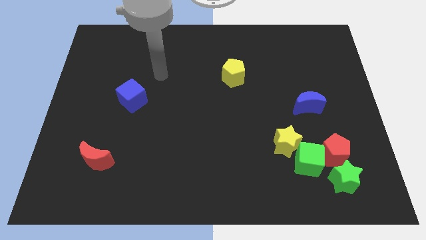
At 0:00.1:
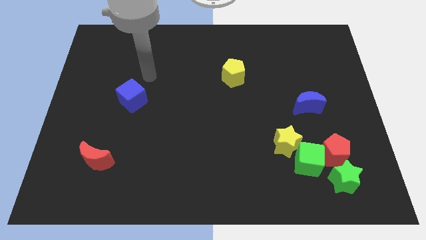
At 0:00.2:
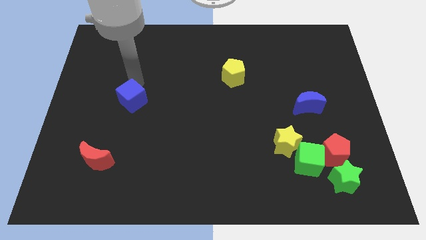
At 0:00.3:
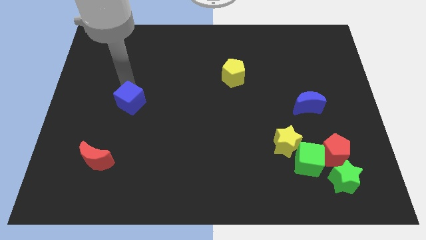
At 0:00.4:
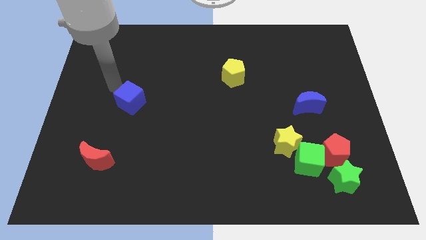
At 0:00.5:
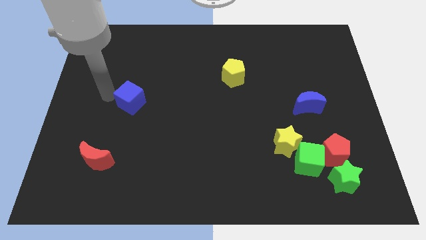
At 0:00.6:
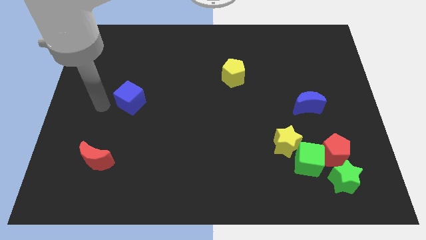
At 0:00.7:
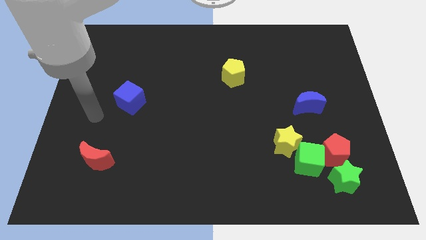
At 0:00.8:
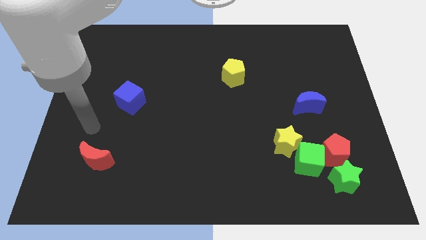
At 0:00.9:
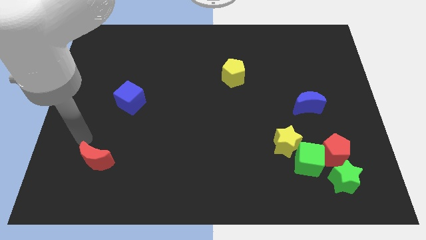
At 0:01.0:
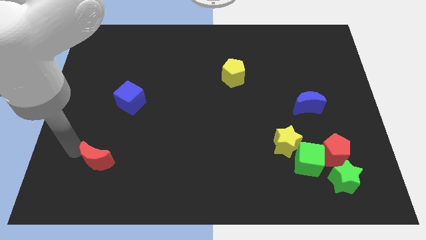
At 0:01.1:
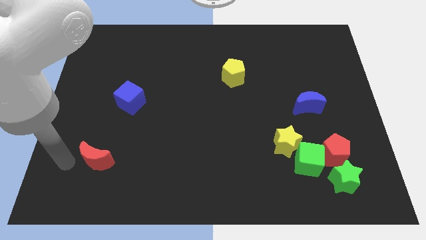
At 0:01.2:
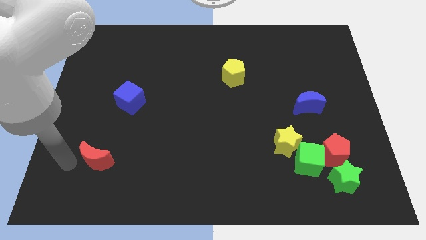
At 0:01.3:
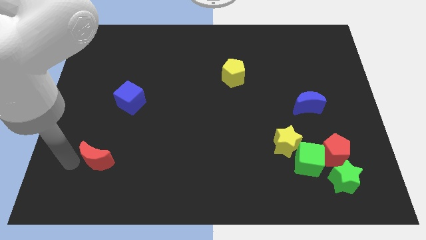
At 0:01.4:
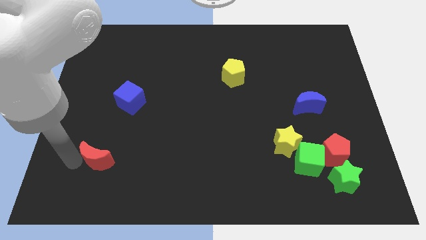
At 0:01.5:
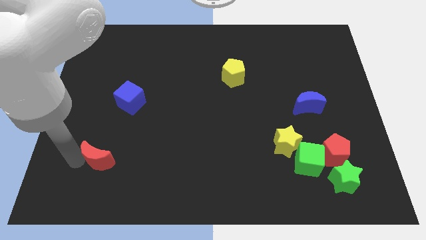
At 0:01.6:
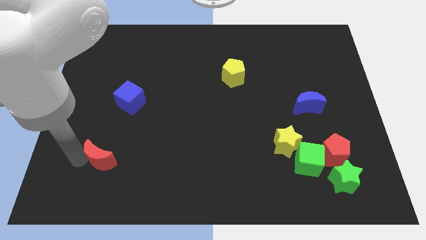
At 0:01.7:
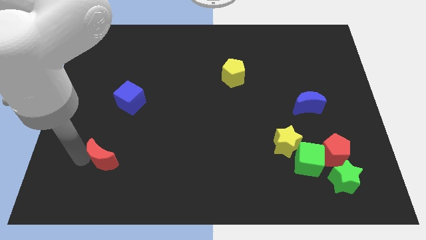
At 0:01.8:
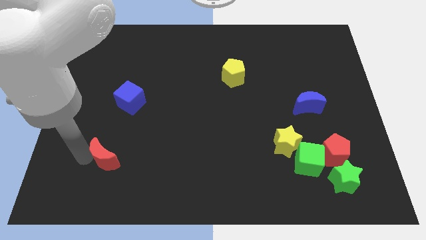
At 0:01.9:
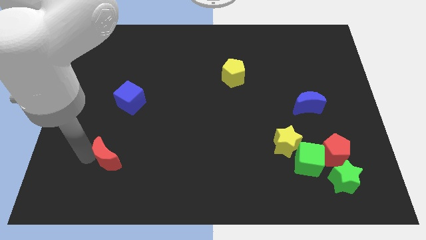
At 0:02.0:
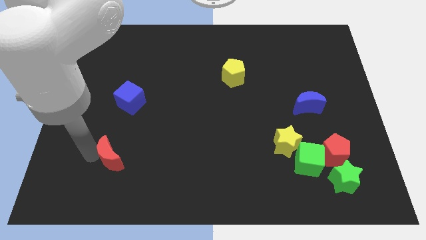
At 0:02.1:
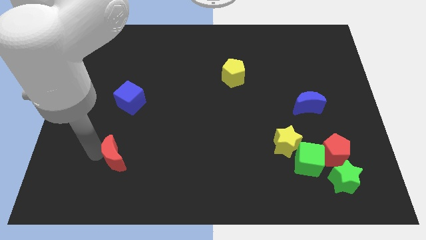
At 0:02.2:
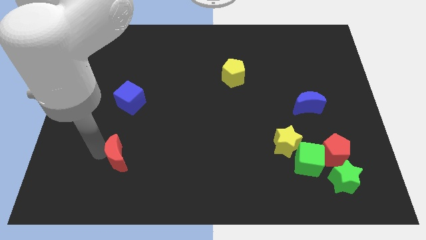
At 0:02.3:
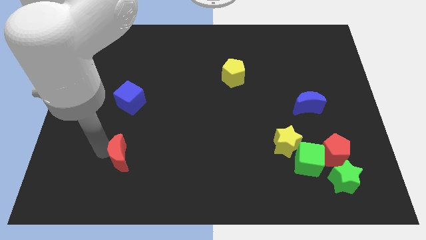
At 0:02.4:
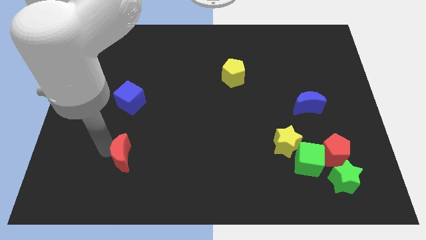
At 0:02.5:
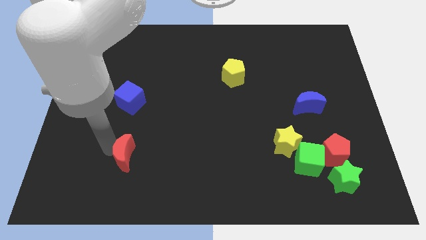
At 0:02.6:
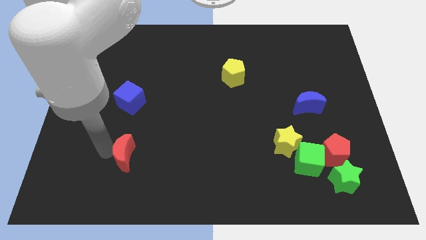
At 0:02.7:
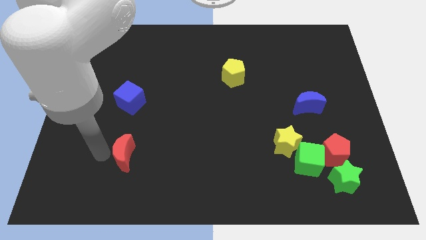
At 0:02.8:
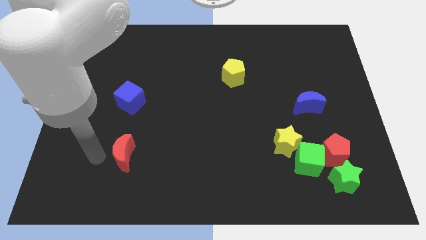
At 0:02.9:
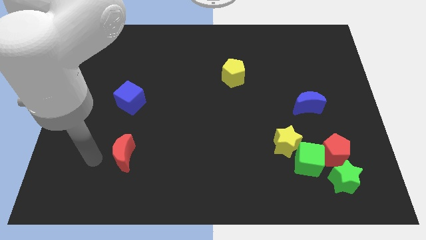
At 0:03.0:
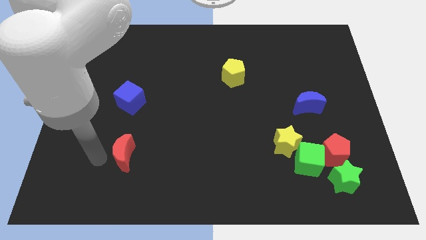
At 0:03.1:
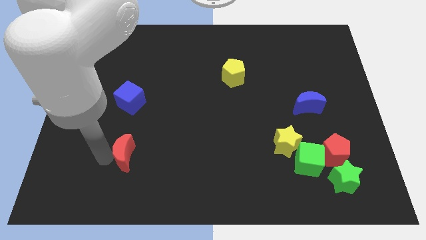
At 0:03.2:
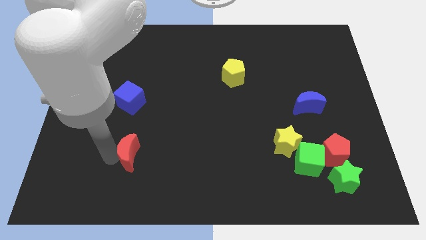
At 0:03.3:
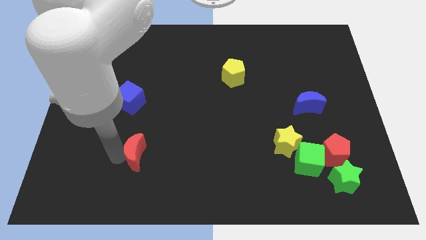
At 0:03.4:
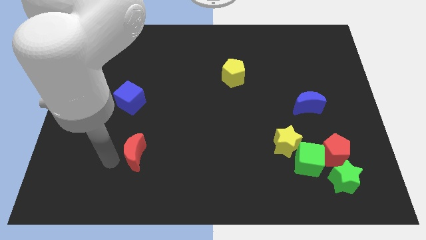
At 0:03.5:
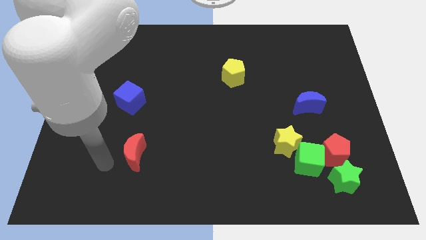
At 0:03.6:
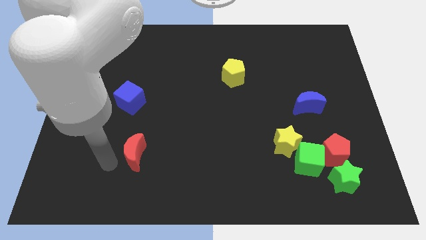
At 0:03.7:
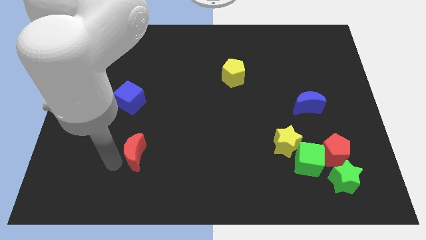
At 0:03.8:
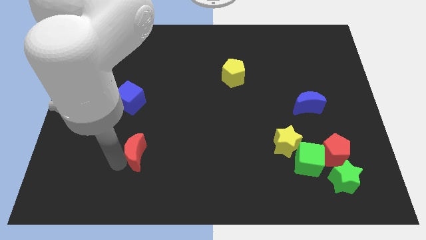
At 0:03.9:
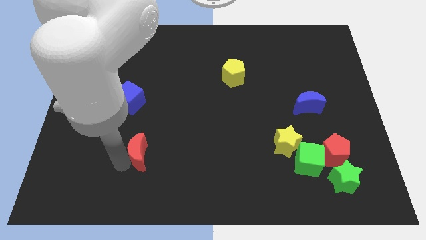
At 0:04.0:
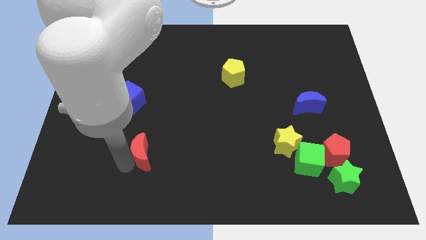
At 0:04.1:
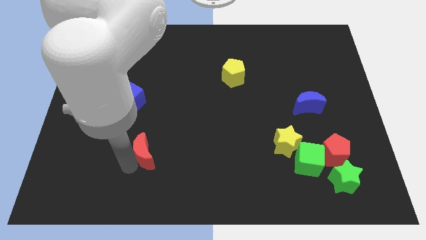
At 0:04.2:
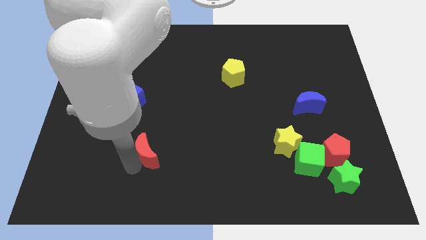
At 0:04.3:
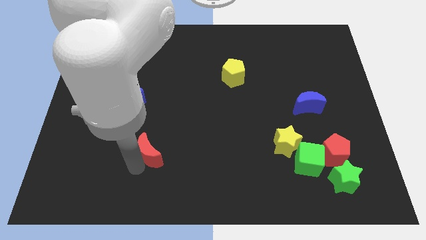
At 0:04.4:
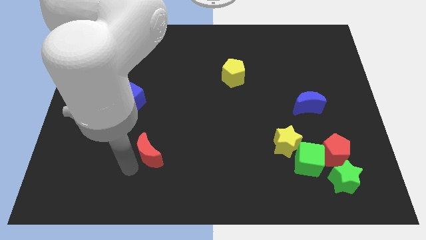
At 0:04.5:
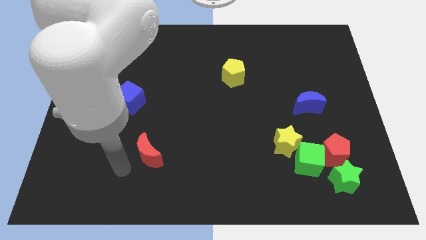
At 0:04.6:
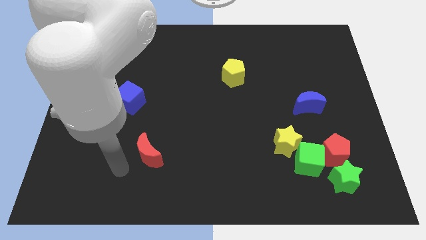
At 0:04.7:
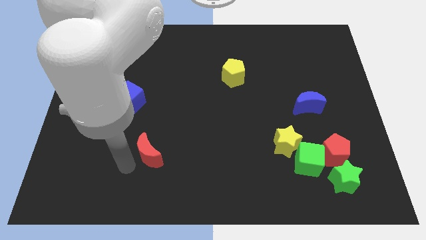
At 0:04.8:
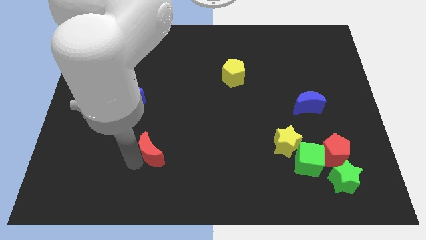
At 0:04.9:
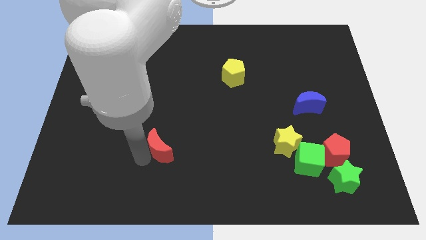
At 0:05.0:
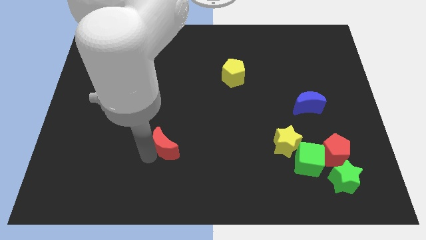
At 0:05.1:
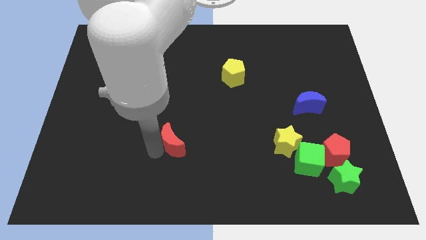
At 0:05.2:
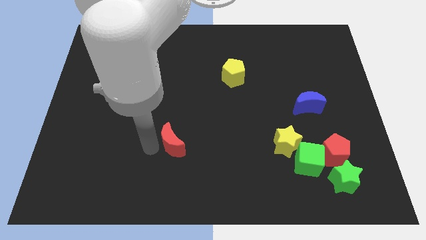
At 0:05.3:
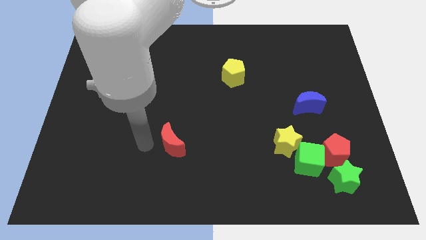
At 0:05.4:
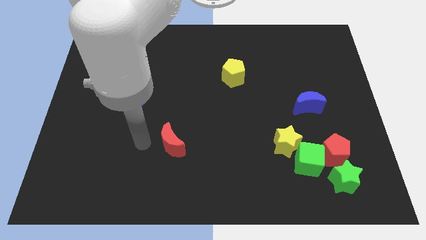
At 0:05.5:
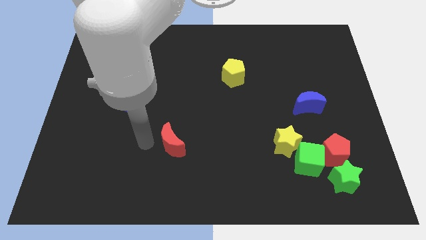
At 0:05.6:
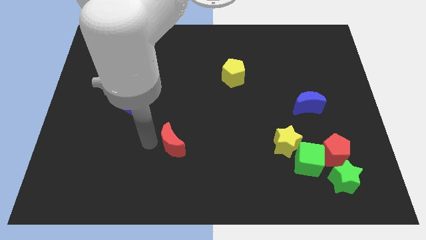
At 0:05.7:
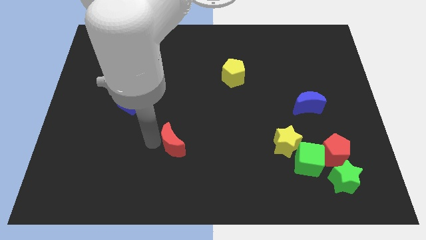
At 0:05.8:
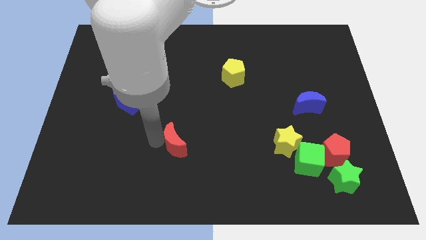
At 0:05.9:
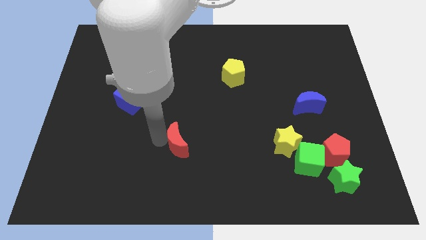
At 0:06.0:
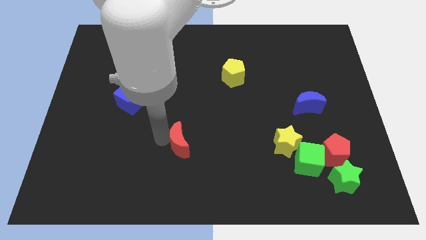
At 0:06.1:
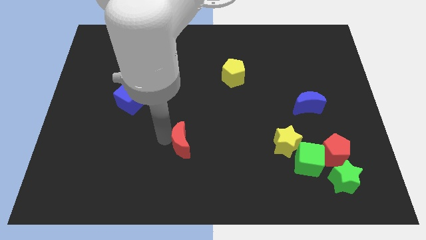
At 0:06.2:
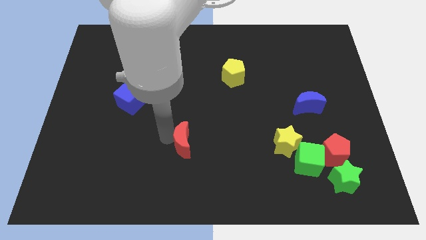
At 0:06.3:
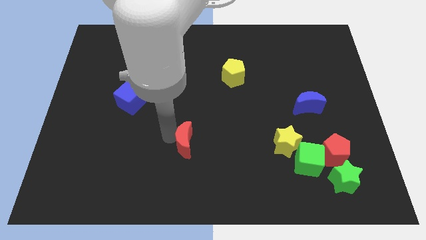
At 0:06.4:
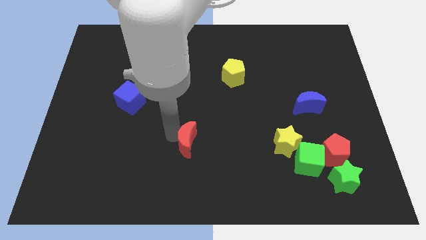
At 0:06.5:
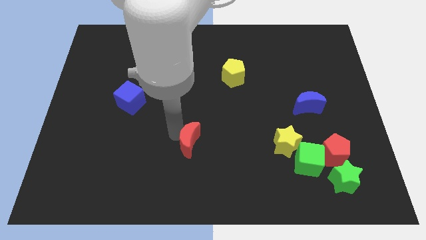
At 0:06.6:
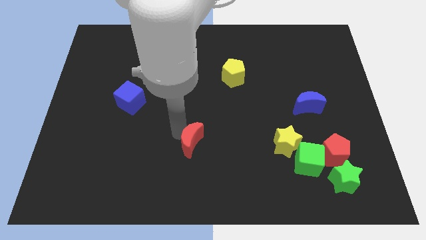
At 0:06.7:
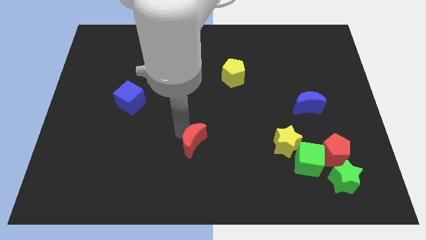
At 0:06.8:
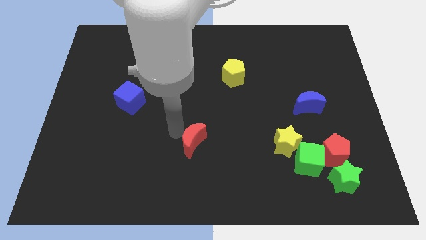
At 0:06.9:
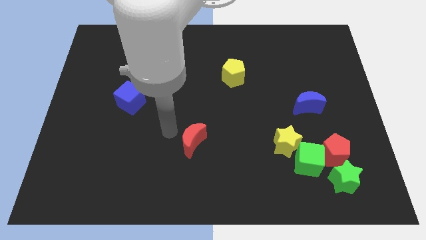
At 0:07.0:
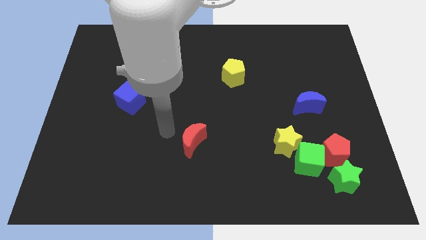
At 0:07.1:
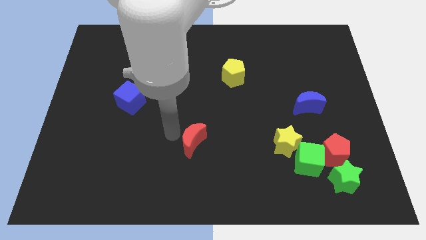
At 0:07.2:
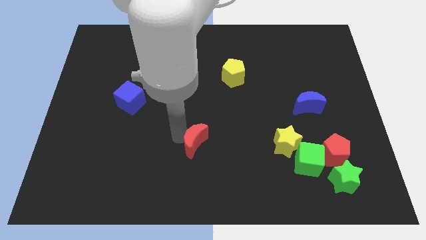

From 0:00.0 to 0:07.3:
slide the red moon to the right

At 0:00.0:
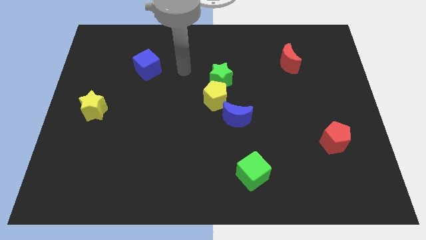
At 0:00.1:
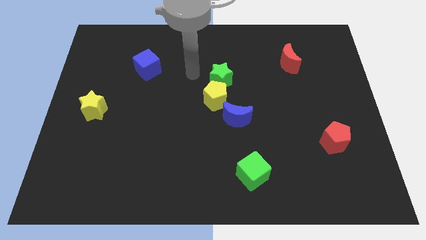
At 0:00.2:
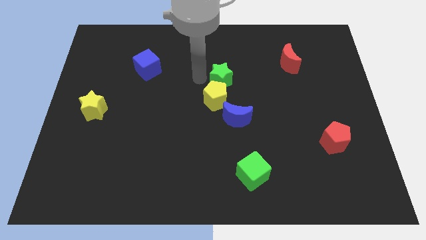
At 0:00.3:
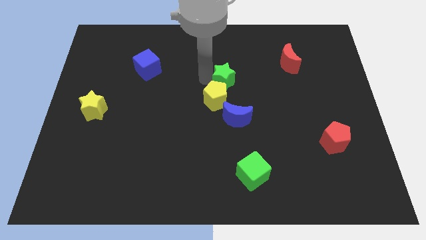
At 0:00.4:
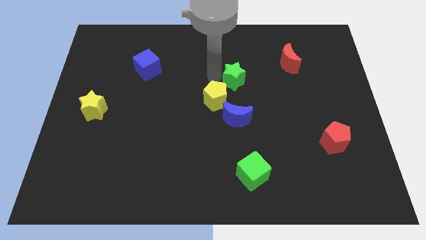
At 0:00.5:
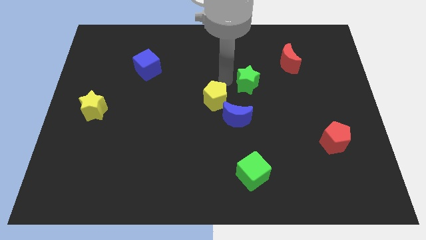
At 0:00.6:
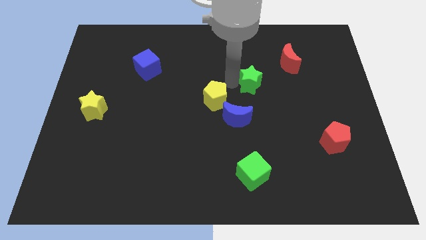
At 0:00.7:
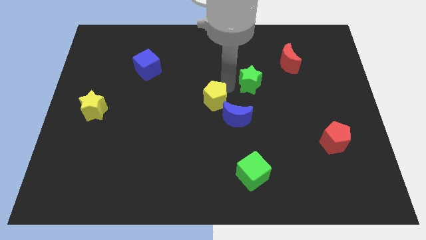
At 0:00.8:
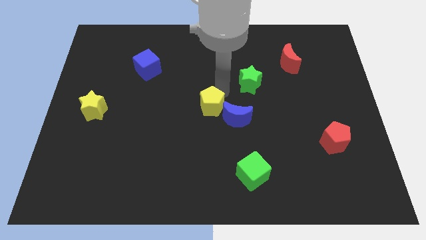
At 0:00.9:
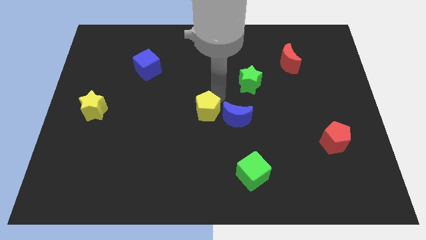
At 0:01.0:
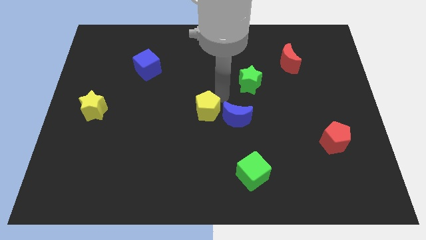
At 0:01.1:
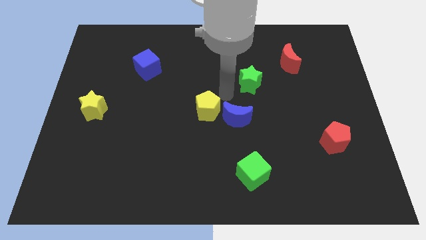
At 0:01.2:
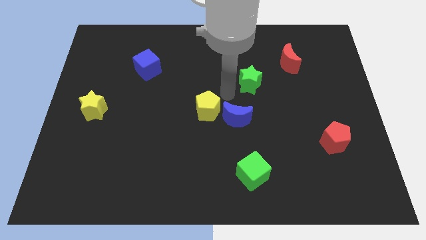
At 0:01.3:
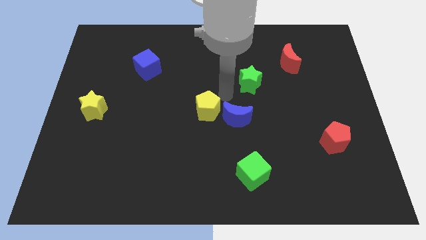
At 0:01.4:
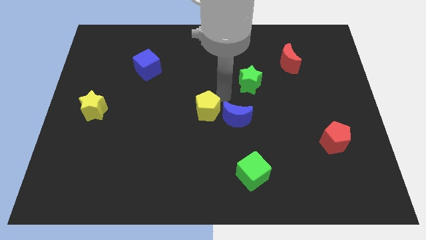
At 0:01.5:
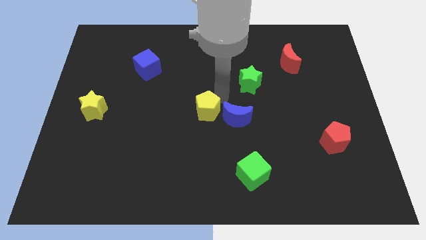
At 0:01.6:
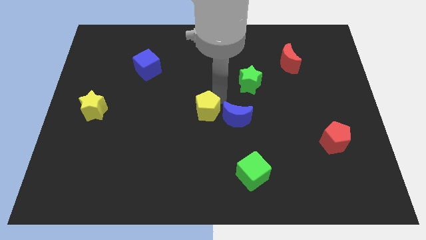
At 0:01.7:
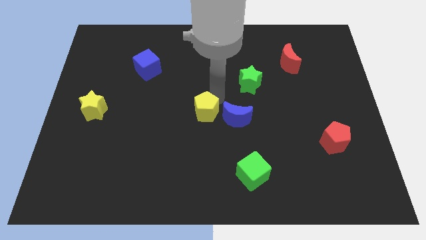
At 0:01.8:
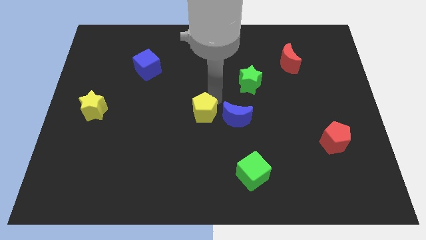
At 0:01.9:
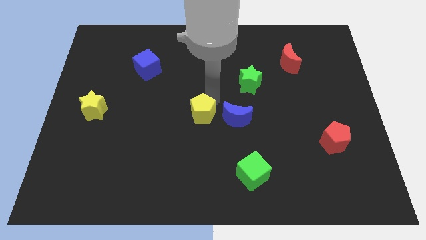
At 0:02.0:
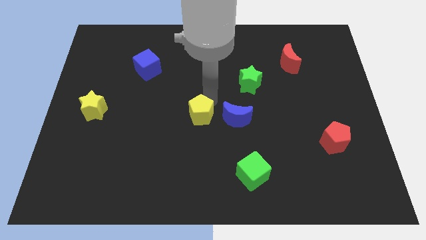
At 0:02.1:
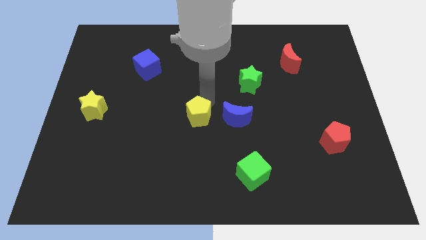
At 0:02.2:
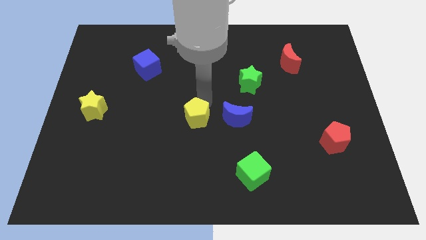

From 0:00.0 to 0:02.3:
push the yellow pentagon downwards and to the left diagonally slightly
